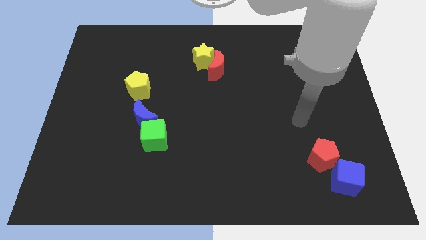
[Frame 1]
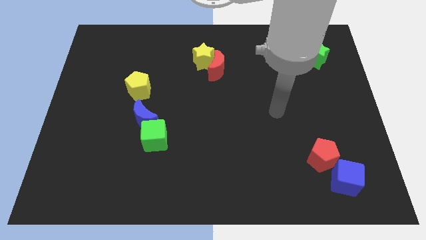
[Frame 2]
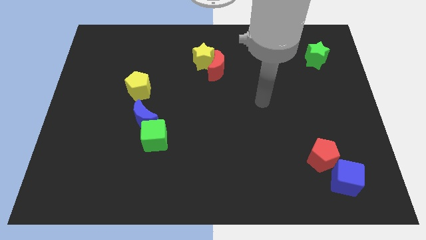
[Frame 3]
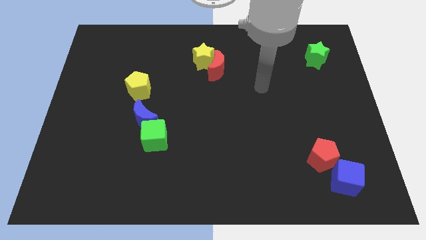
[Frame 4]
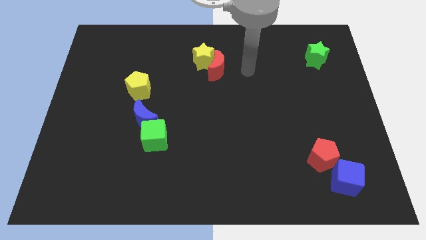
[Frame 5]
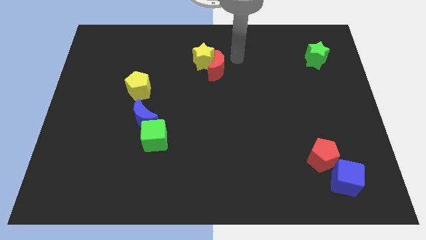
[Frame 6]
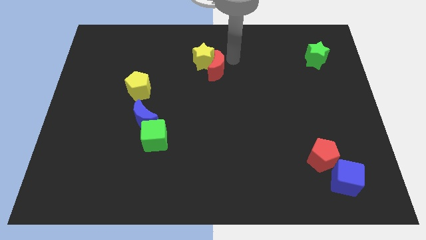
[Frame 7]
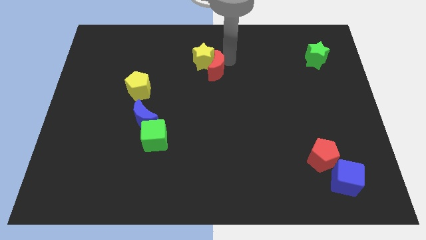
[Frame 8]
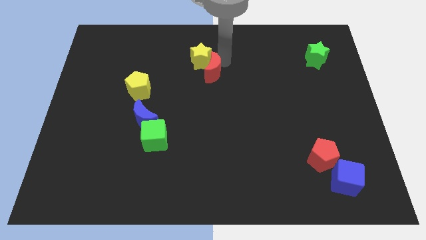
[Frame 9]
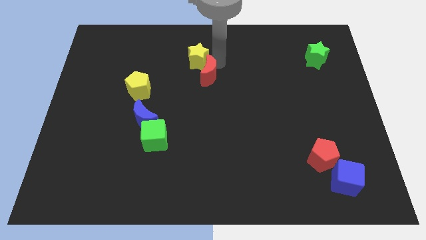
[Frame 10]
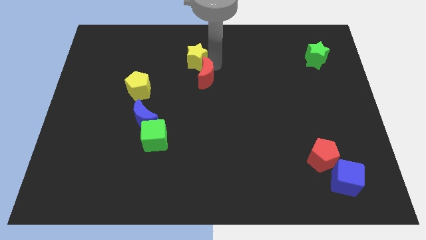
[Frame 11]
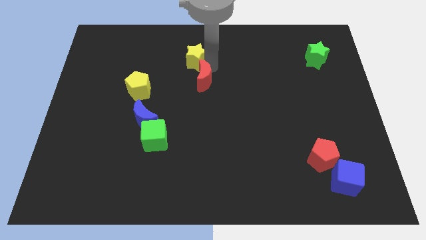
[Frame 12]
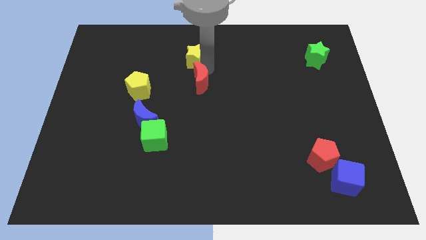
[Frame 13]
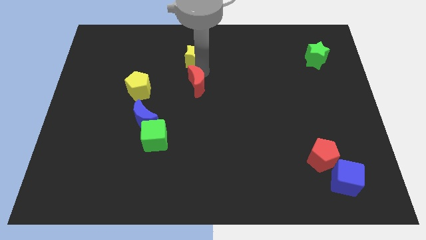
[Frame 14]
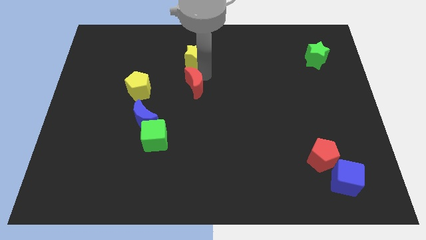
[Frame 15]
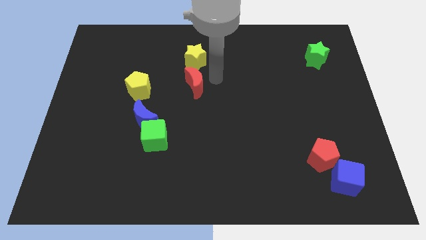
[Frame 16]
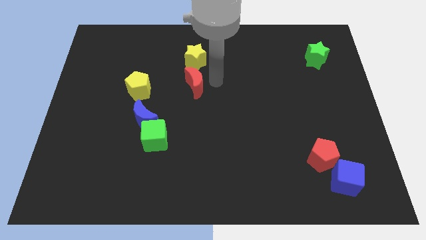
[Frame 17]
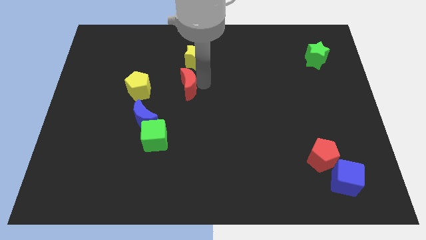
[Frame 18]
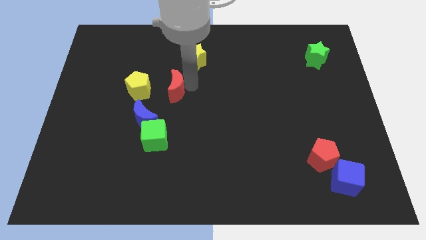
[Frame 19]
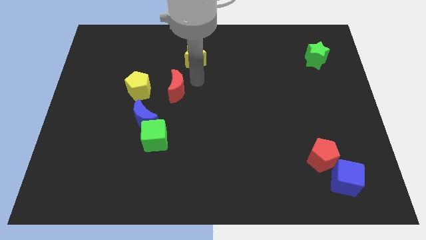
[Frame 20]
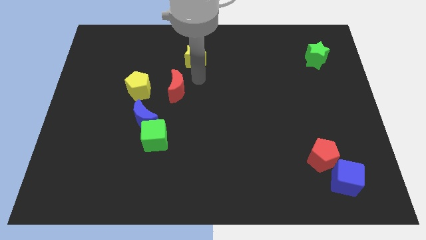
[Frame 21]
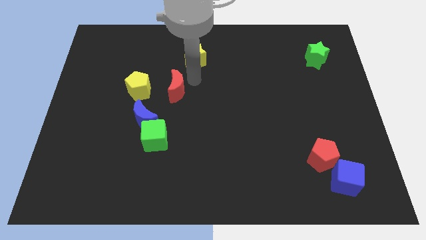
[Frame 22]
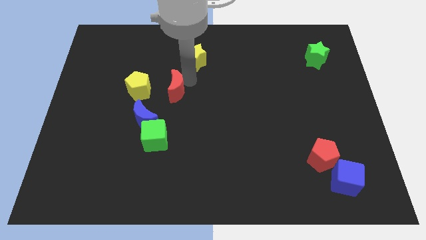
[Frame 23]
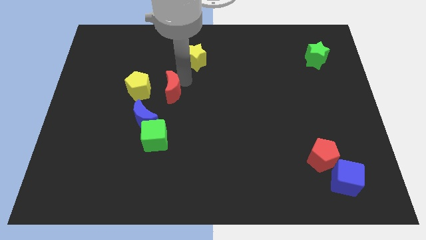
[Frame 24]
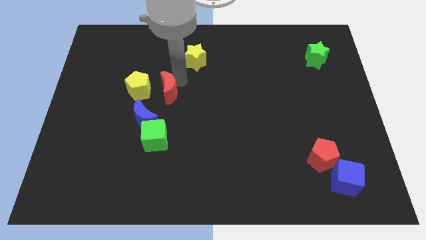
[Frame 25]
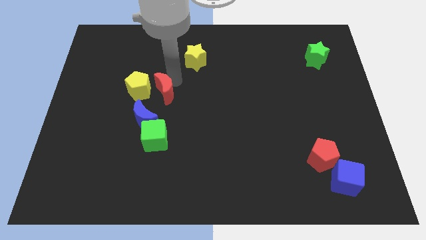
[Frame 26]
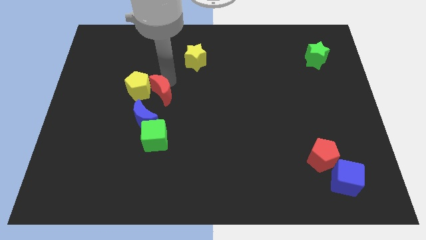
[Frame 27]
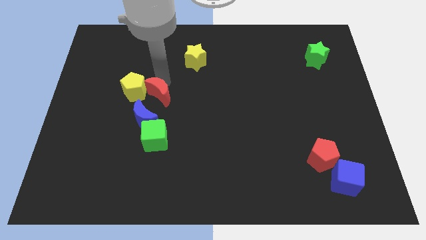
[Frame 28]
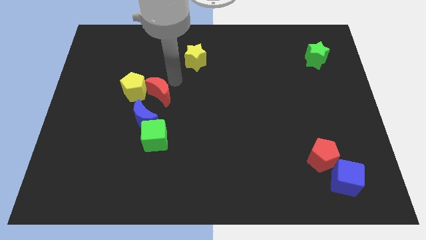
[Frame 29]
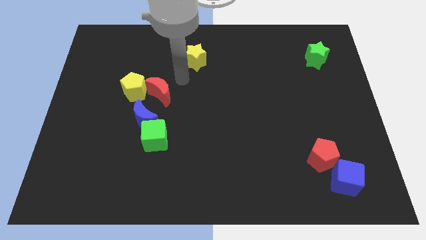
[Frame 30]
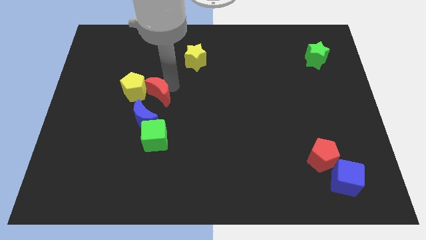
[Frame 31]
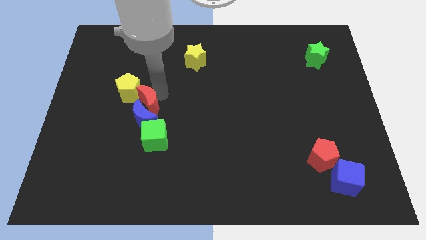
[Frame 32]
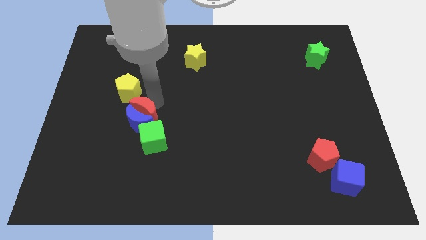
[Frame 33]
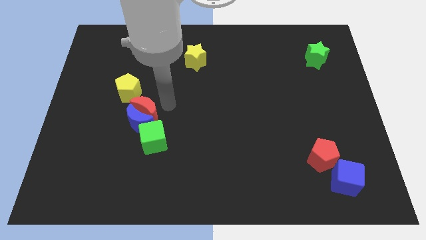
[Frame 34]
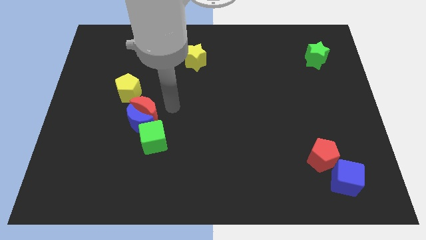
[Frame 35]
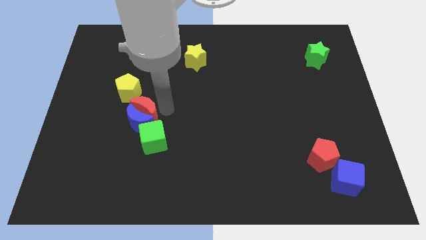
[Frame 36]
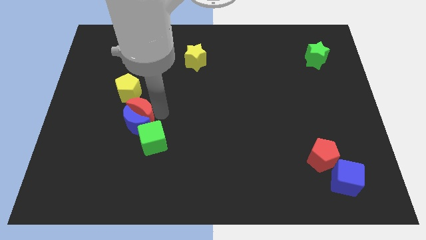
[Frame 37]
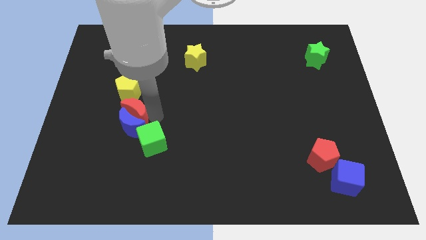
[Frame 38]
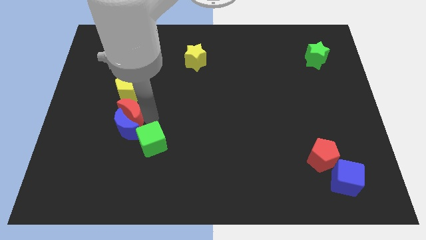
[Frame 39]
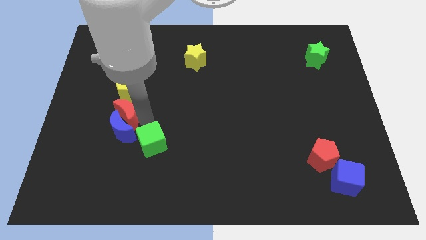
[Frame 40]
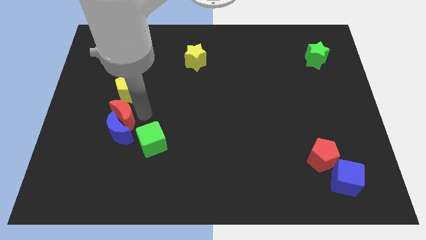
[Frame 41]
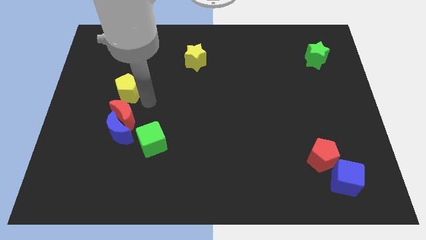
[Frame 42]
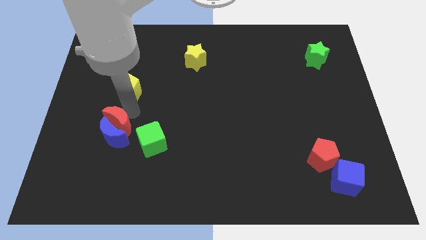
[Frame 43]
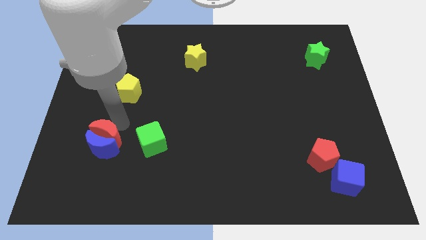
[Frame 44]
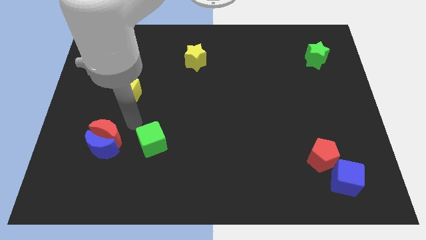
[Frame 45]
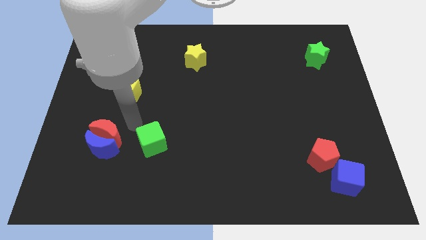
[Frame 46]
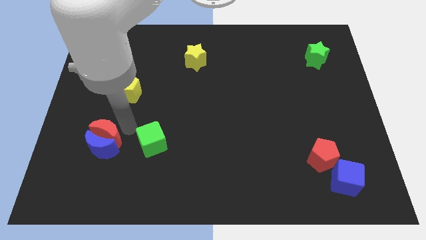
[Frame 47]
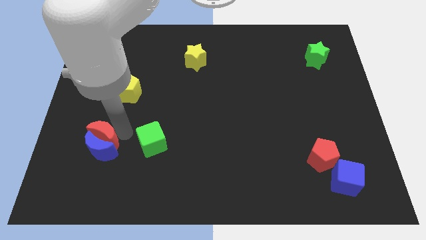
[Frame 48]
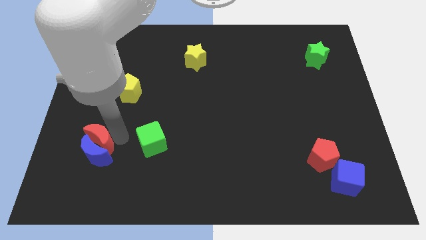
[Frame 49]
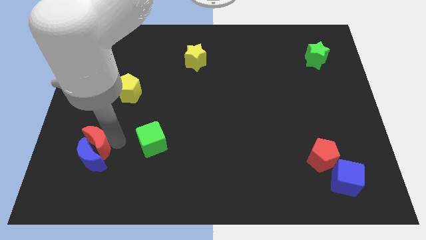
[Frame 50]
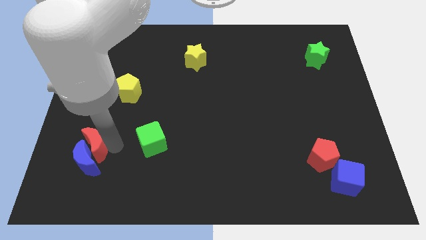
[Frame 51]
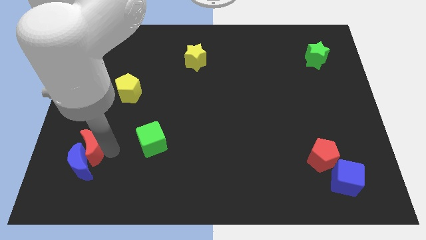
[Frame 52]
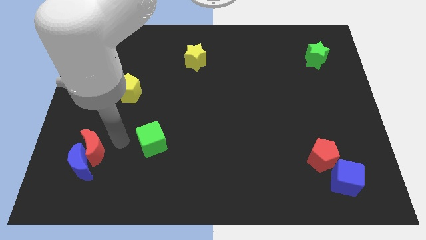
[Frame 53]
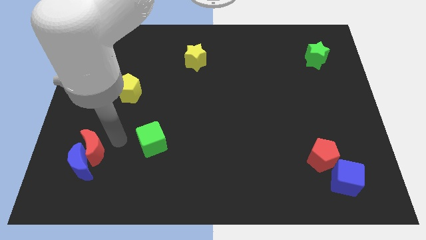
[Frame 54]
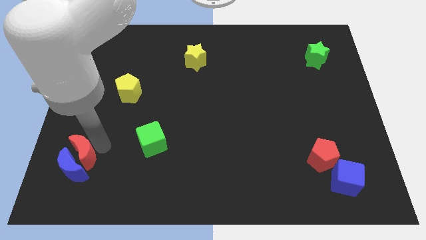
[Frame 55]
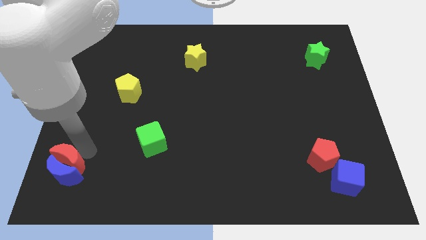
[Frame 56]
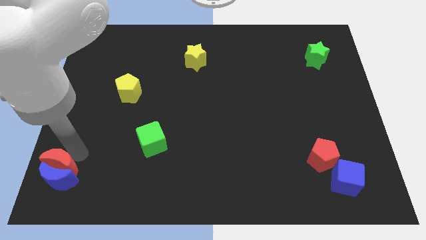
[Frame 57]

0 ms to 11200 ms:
move the red moon to the bottom left of the board
